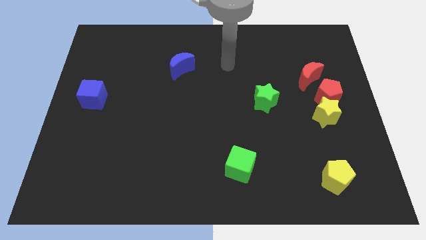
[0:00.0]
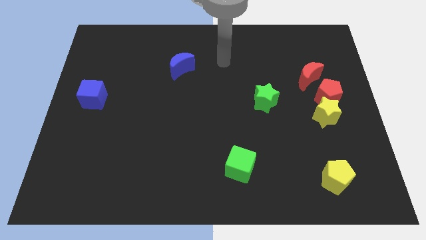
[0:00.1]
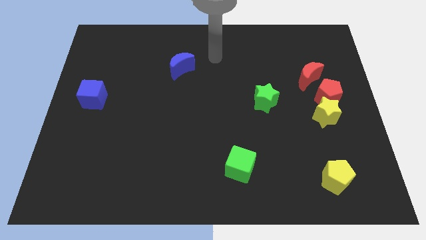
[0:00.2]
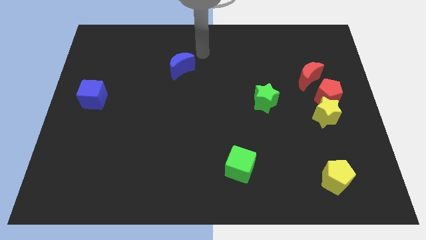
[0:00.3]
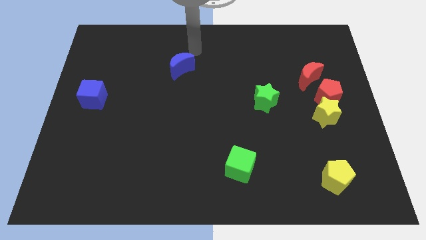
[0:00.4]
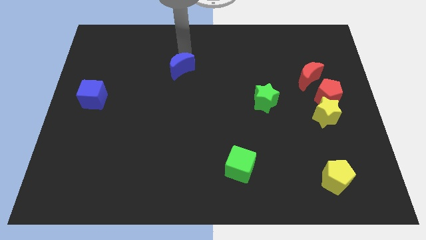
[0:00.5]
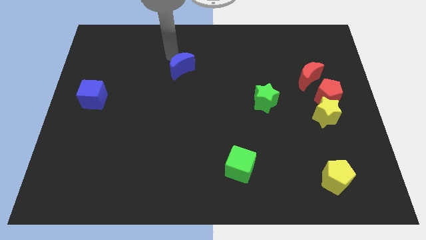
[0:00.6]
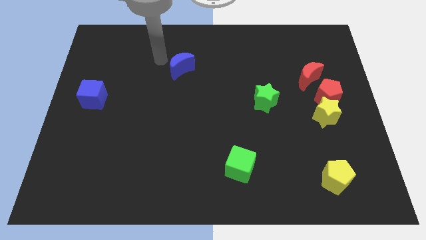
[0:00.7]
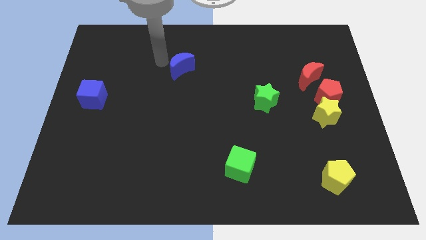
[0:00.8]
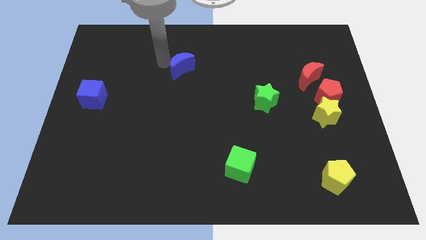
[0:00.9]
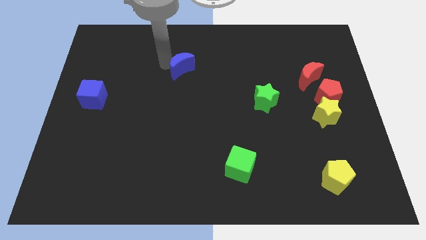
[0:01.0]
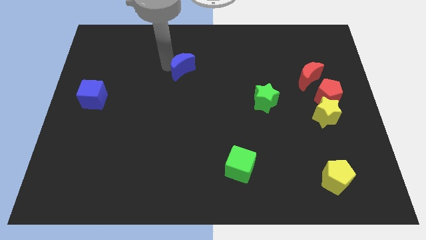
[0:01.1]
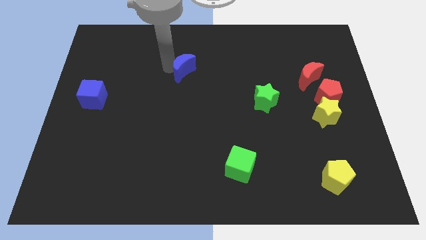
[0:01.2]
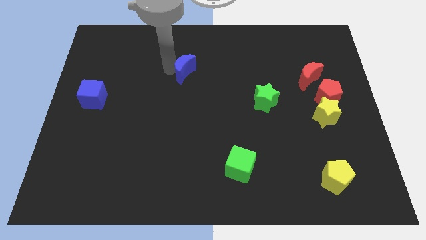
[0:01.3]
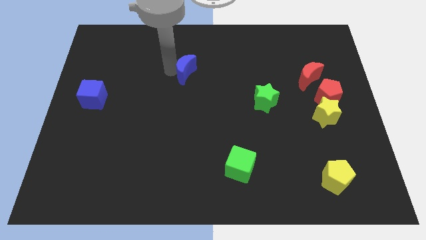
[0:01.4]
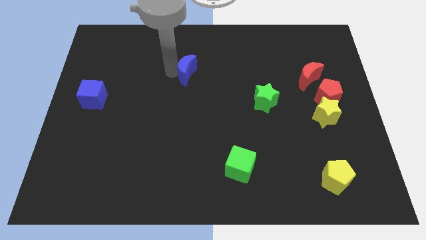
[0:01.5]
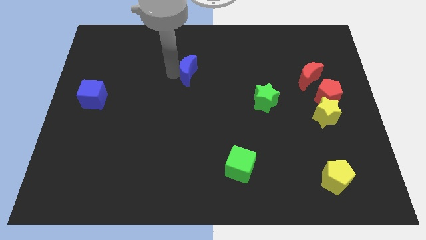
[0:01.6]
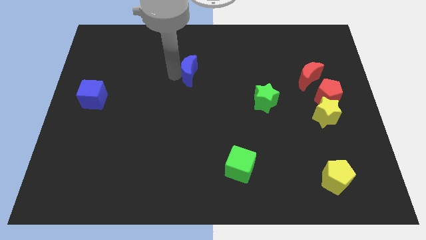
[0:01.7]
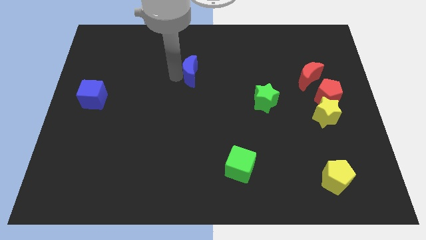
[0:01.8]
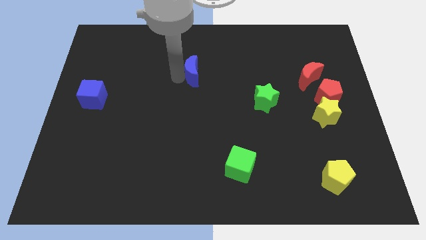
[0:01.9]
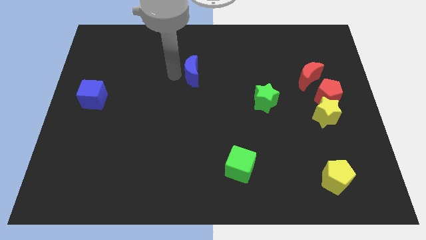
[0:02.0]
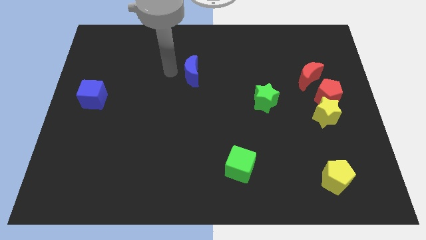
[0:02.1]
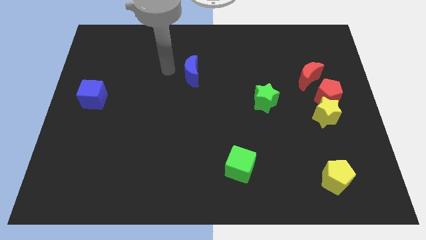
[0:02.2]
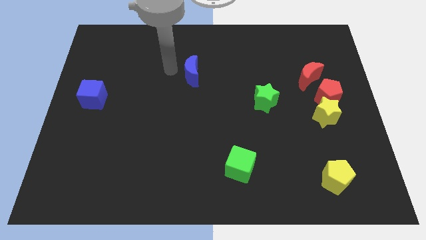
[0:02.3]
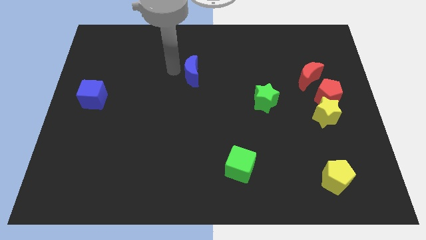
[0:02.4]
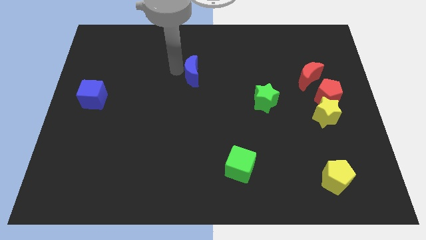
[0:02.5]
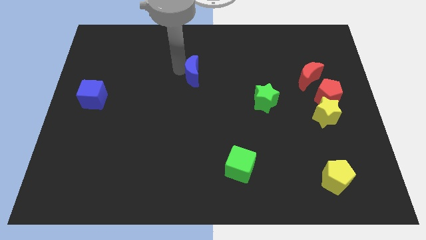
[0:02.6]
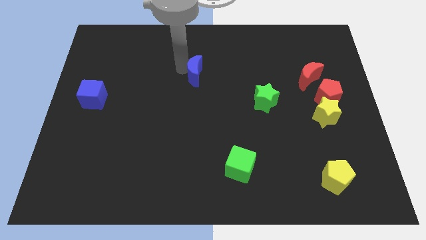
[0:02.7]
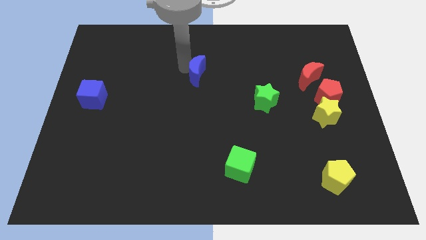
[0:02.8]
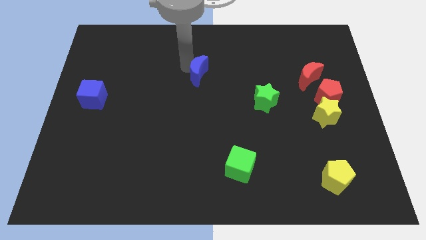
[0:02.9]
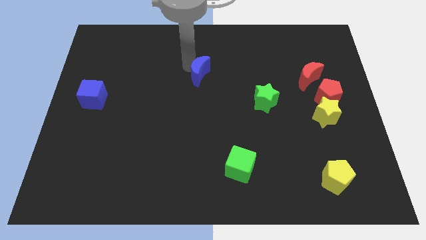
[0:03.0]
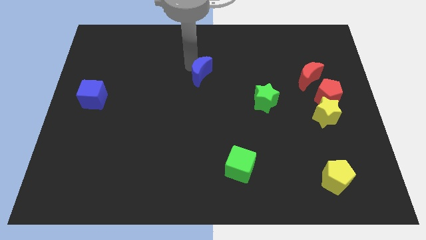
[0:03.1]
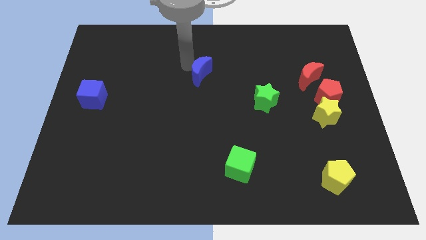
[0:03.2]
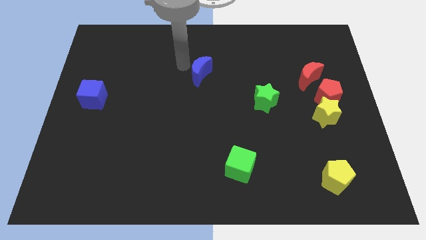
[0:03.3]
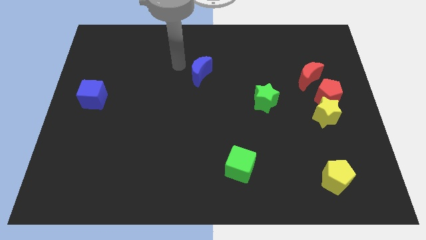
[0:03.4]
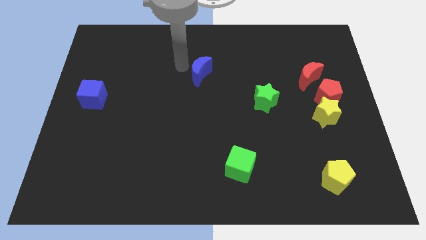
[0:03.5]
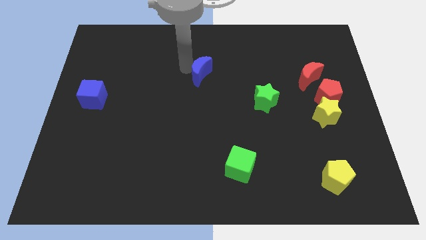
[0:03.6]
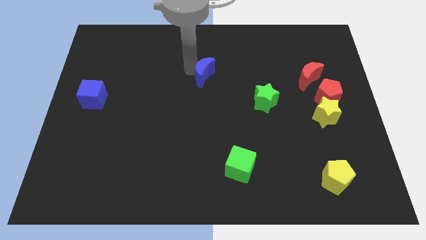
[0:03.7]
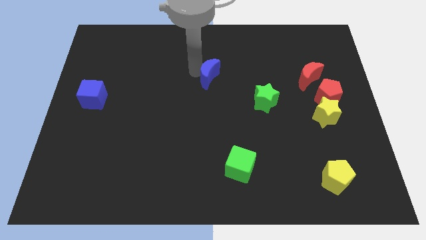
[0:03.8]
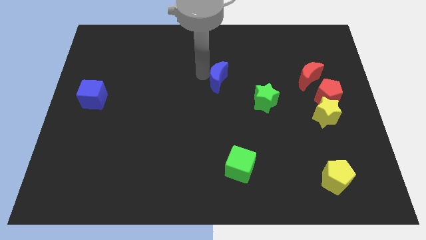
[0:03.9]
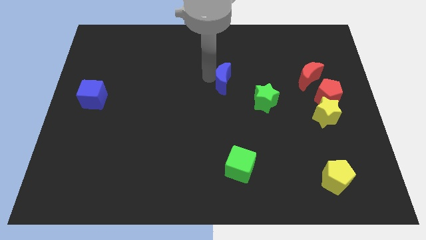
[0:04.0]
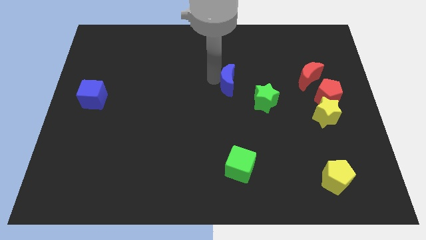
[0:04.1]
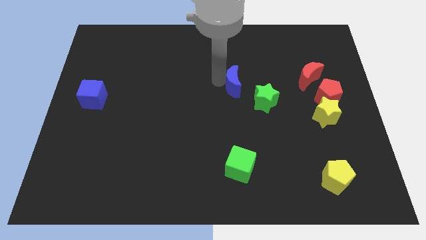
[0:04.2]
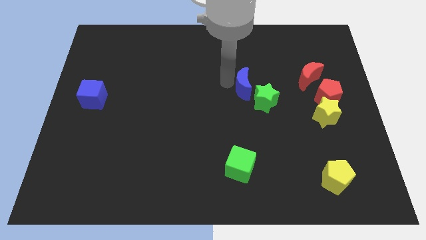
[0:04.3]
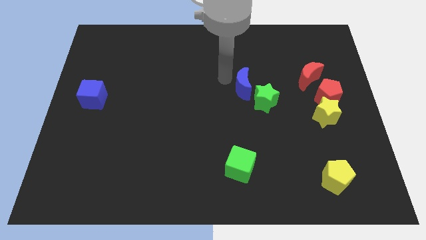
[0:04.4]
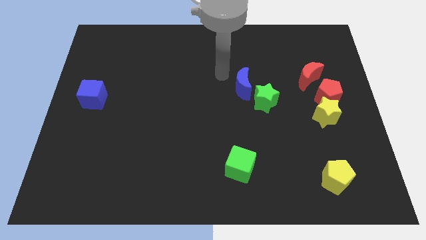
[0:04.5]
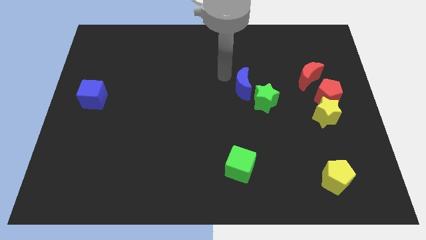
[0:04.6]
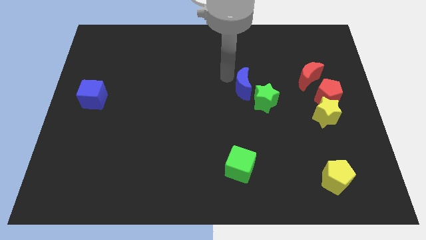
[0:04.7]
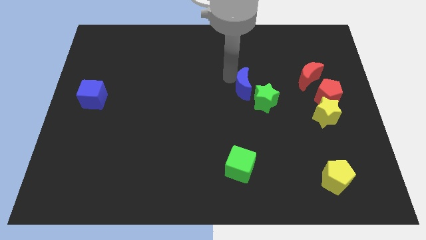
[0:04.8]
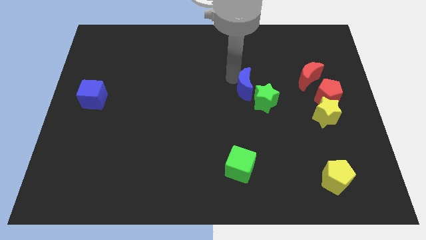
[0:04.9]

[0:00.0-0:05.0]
slide the blue moon towards the green star

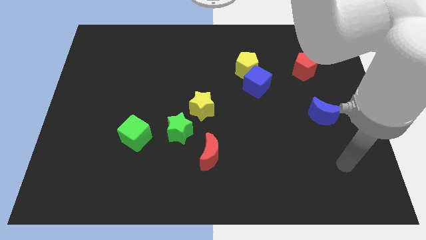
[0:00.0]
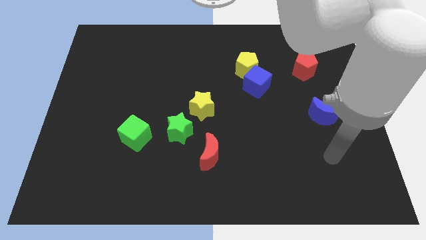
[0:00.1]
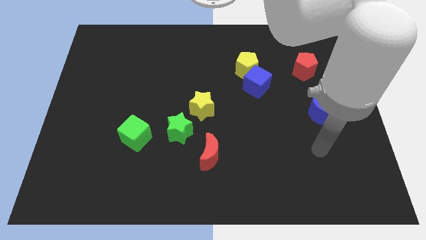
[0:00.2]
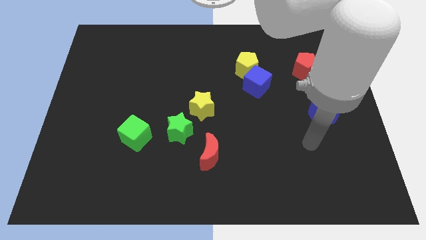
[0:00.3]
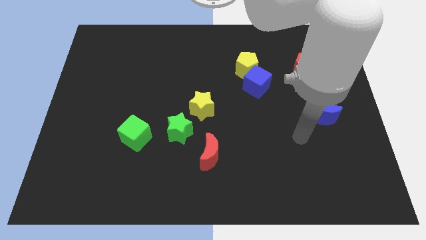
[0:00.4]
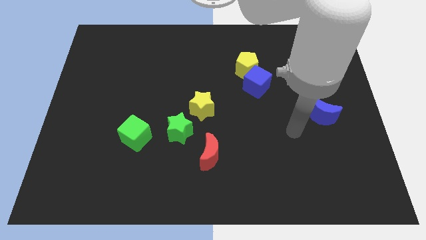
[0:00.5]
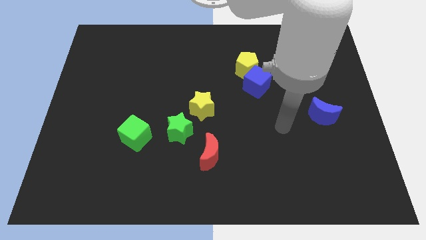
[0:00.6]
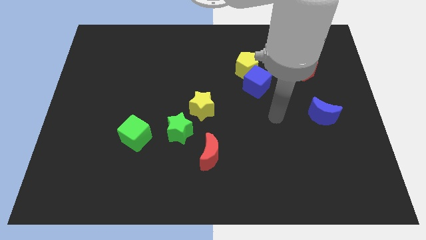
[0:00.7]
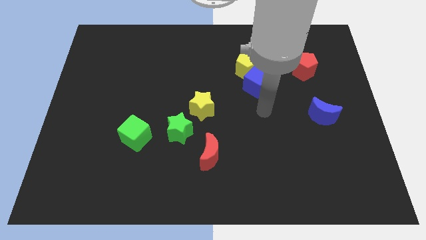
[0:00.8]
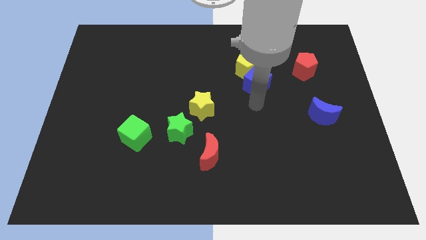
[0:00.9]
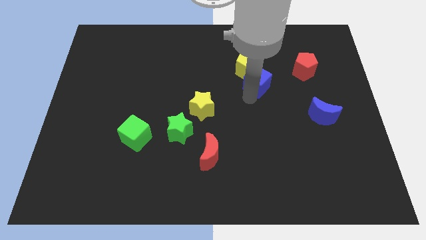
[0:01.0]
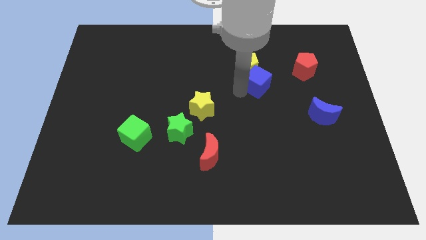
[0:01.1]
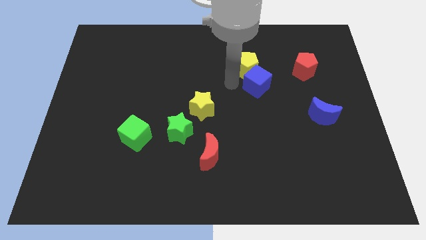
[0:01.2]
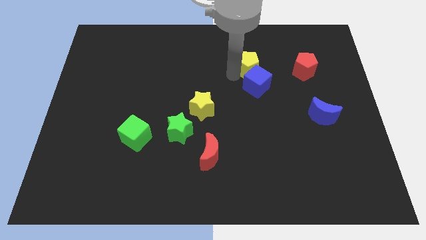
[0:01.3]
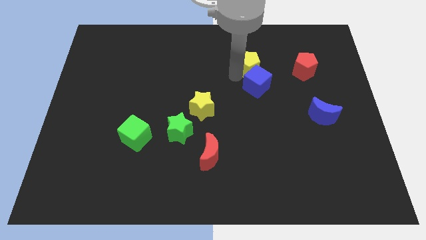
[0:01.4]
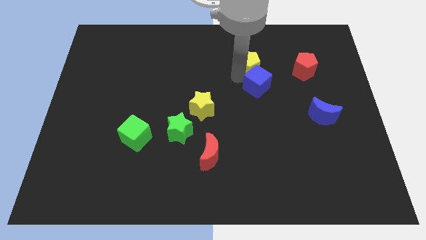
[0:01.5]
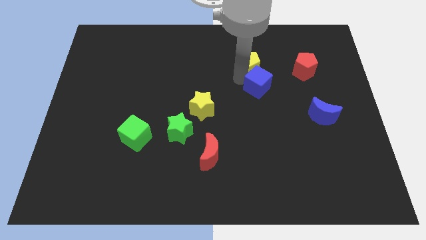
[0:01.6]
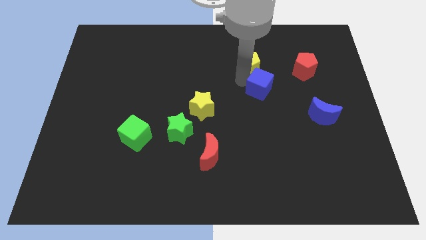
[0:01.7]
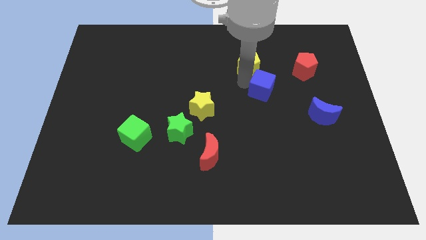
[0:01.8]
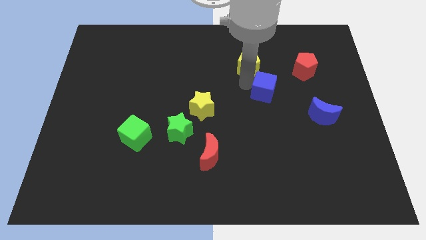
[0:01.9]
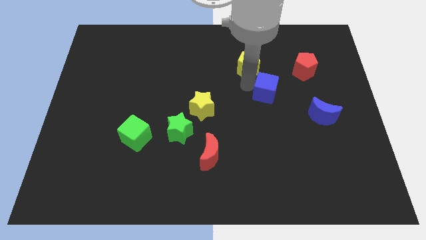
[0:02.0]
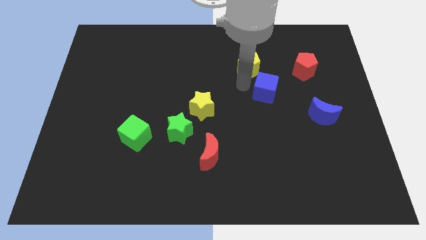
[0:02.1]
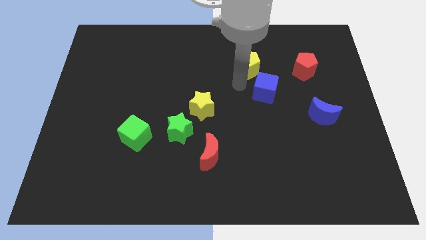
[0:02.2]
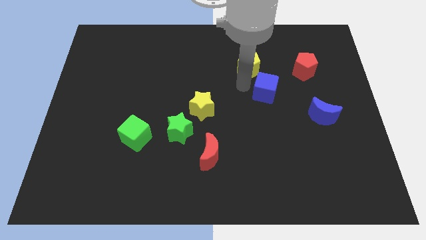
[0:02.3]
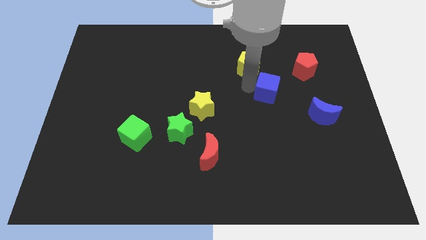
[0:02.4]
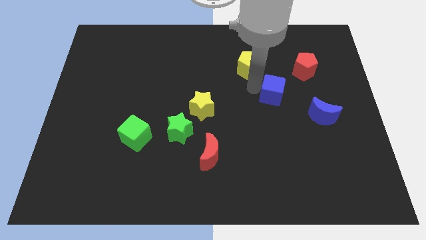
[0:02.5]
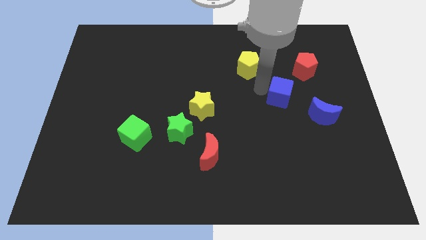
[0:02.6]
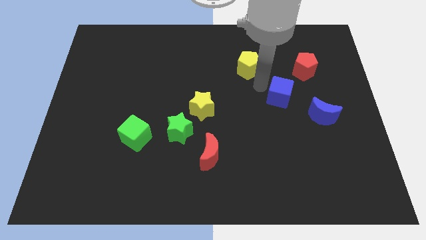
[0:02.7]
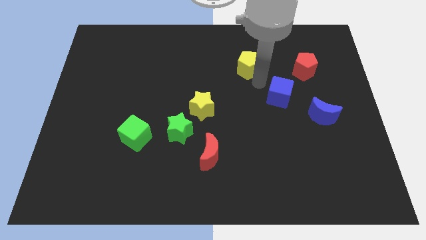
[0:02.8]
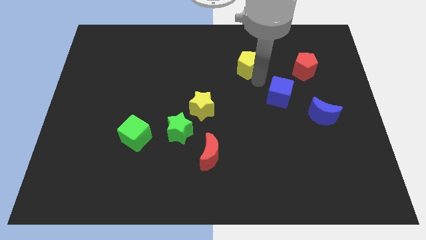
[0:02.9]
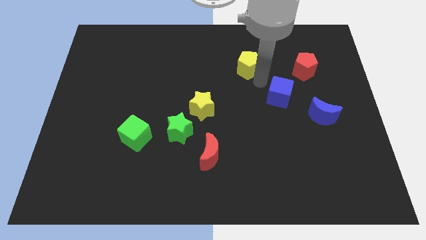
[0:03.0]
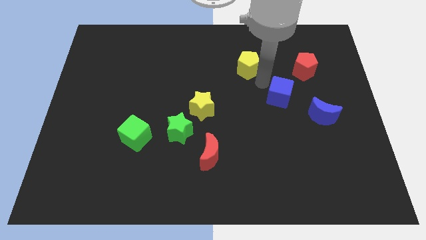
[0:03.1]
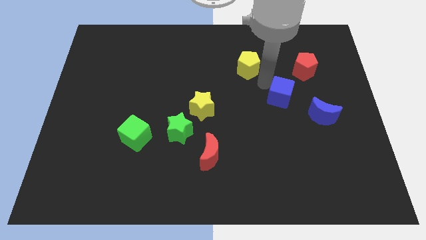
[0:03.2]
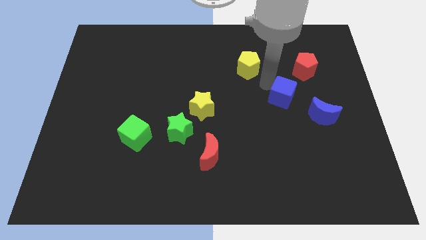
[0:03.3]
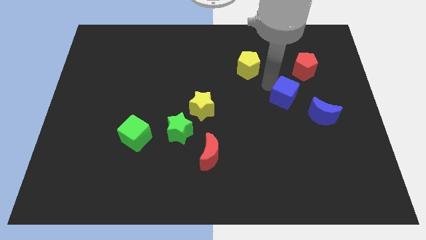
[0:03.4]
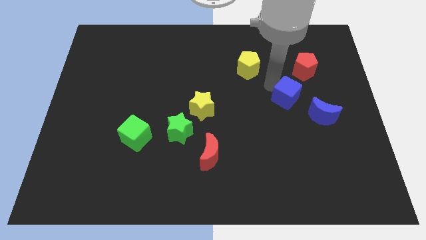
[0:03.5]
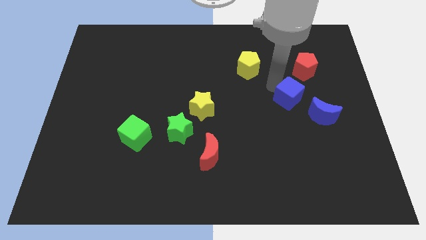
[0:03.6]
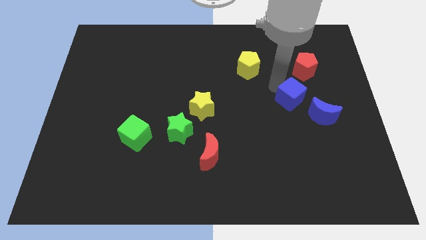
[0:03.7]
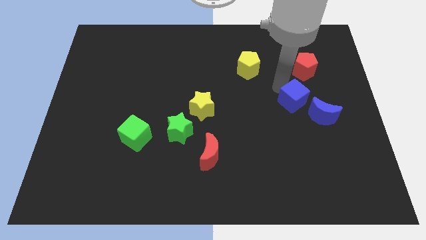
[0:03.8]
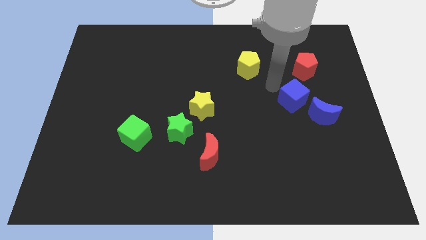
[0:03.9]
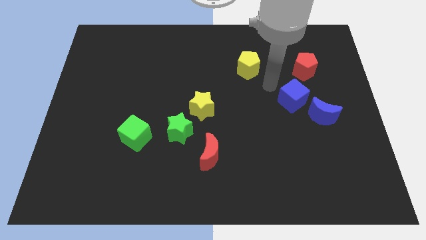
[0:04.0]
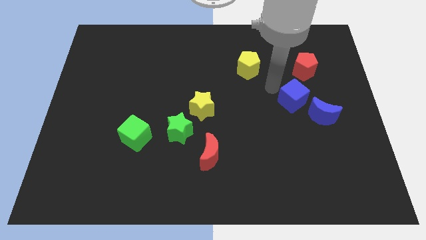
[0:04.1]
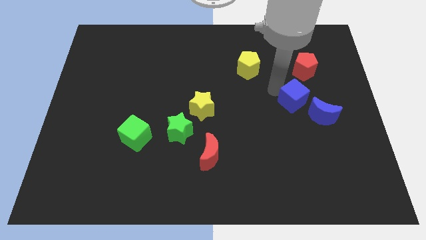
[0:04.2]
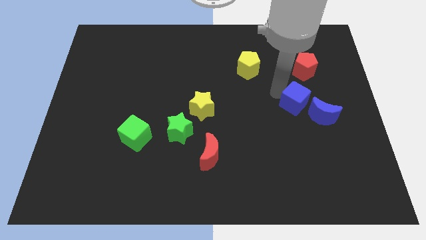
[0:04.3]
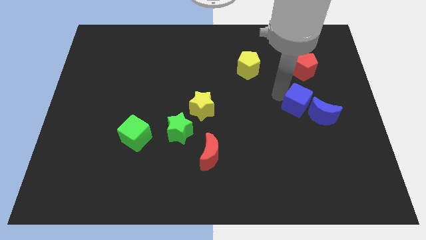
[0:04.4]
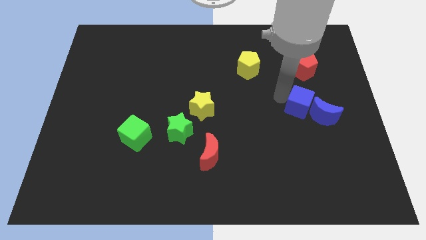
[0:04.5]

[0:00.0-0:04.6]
push the blue cube close to the blue moon
